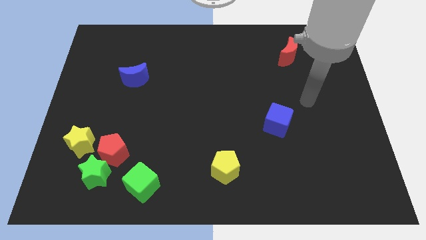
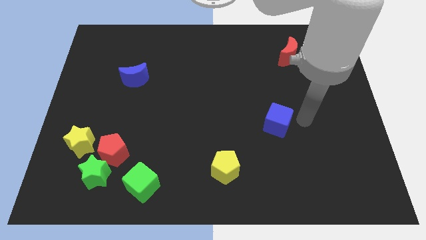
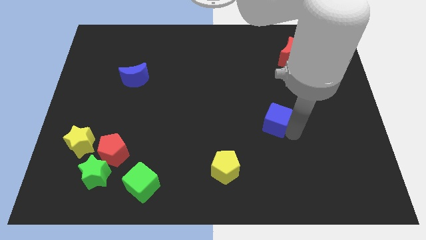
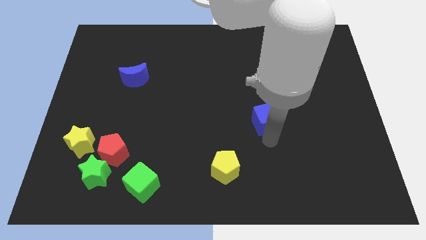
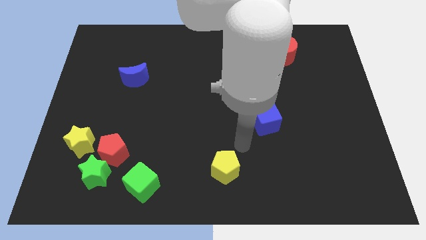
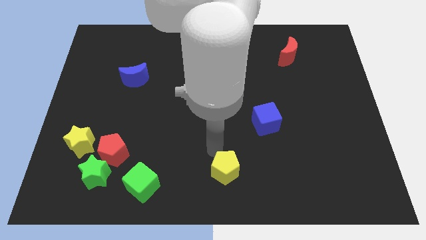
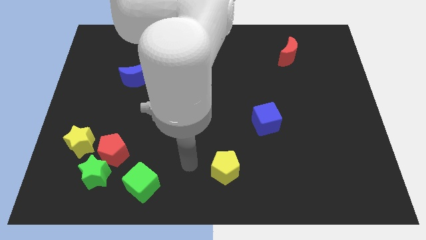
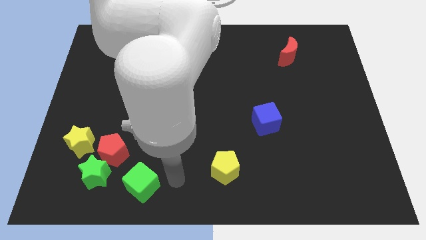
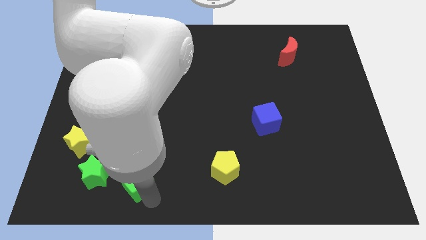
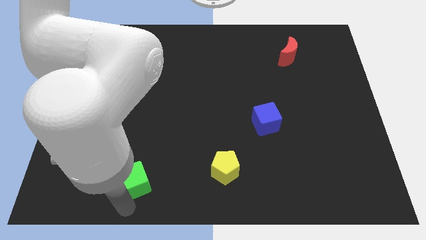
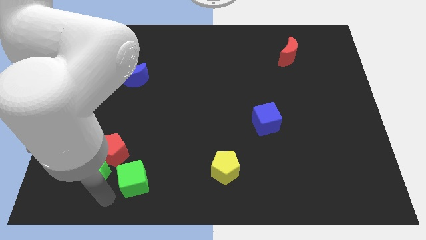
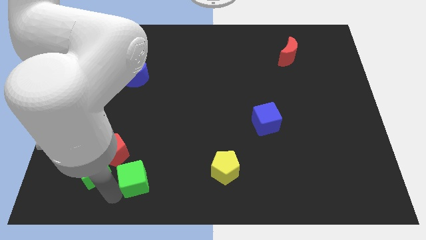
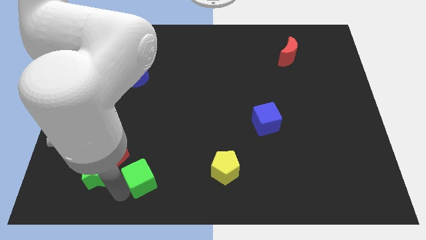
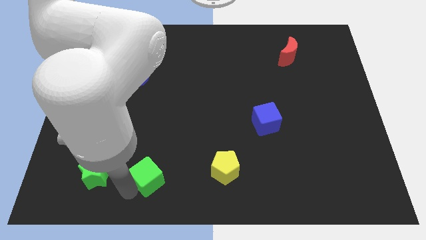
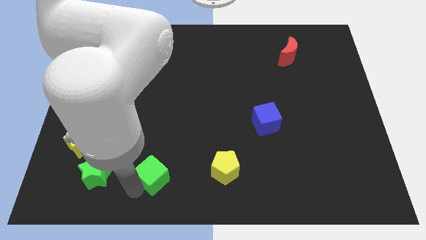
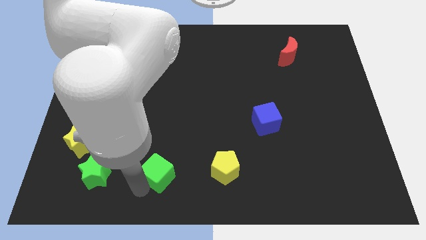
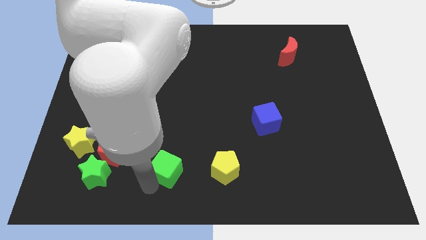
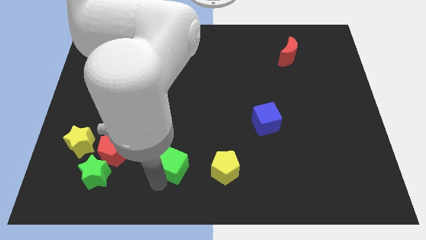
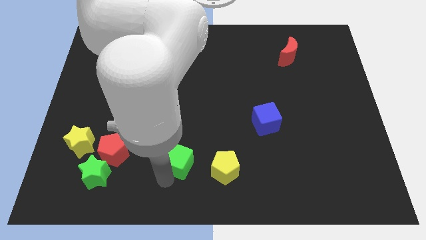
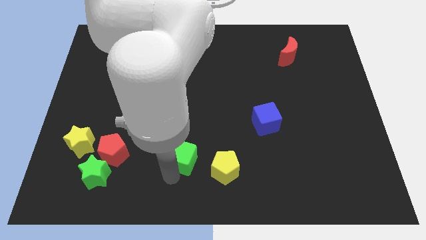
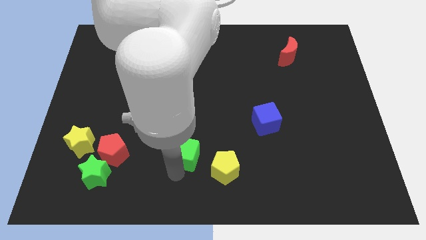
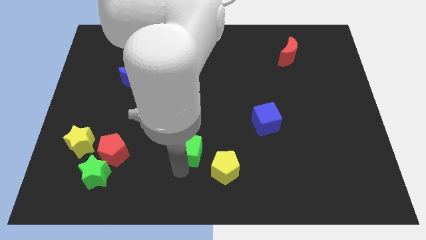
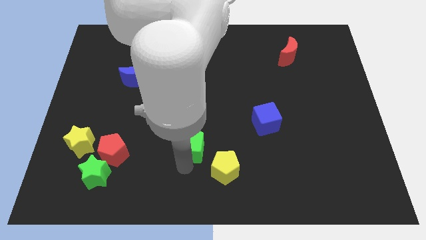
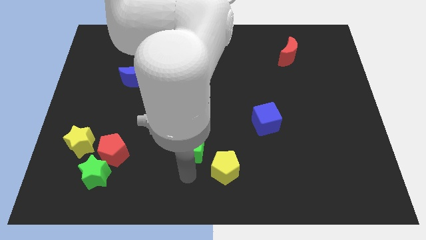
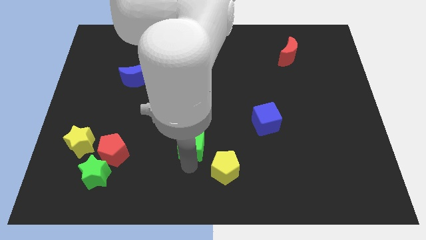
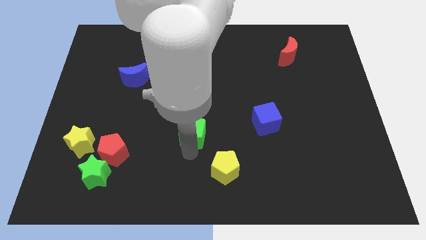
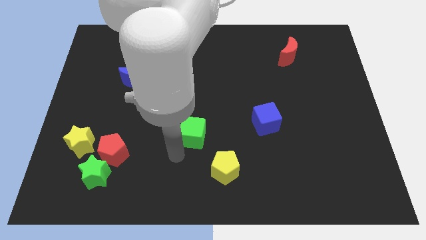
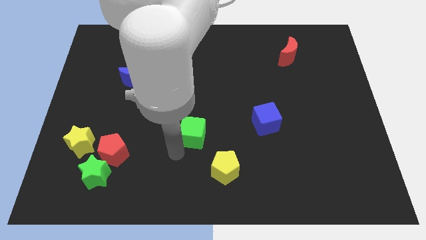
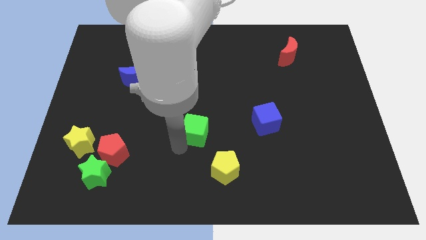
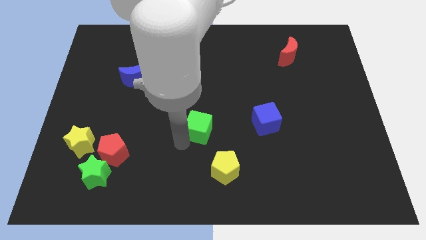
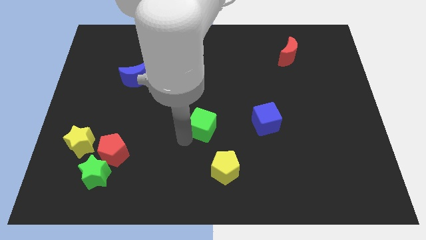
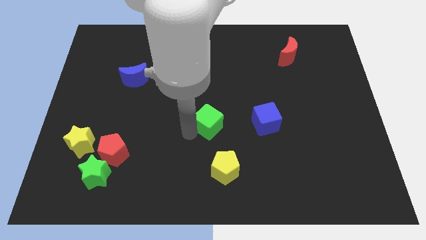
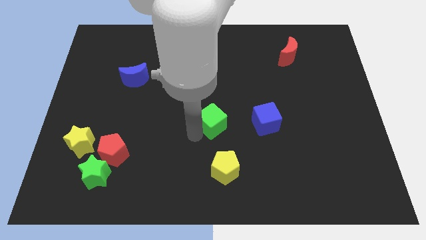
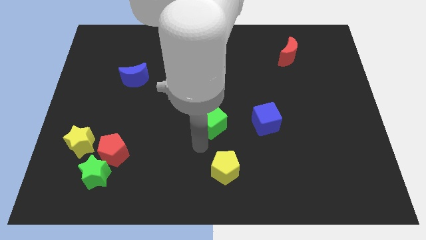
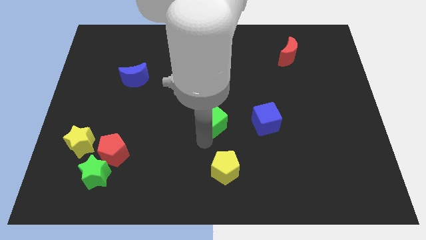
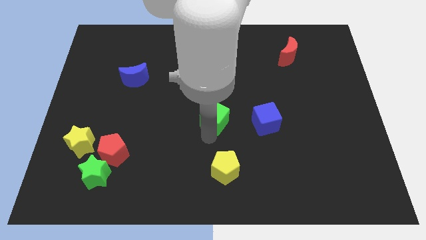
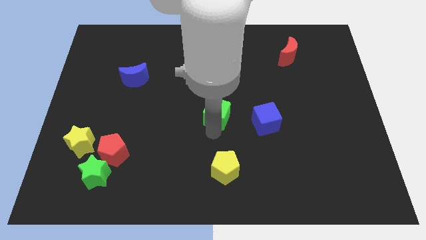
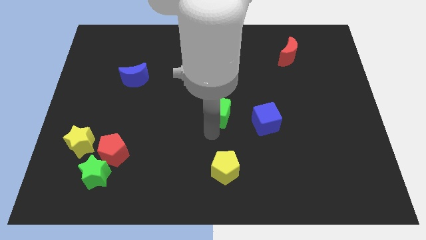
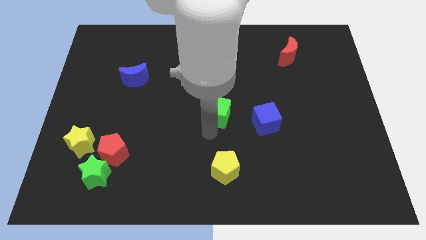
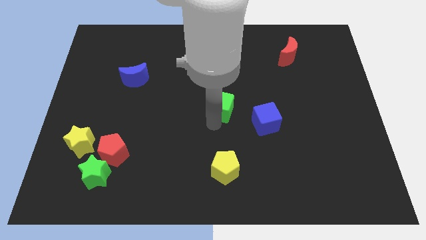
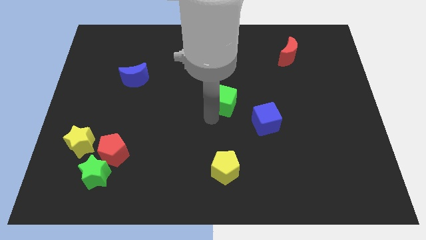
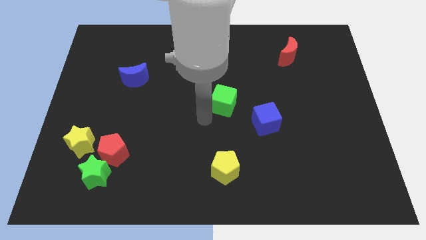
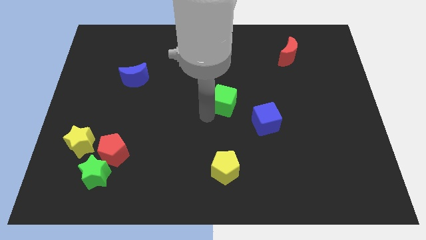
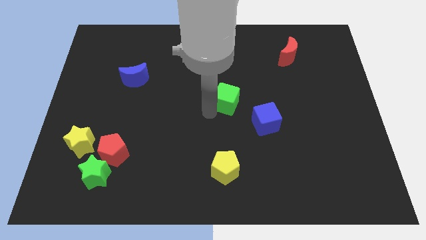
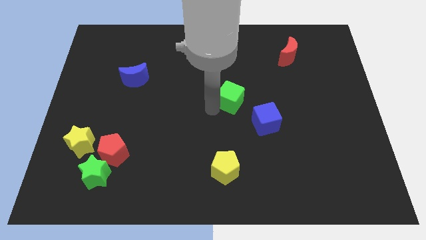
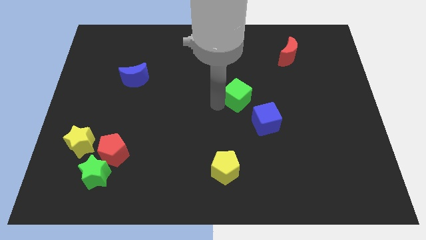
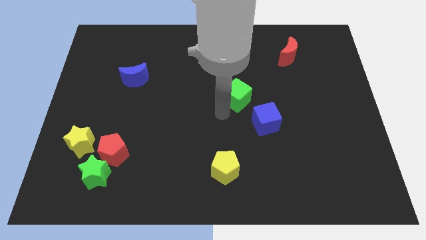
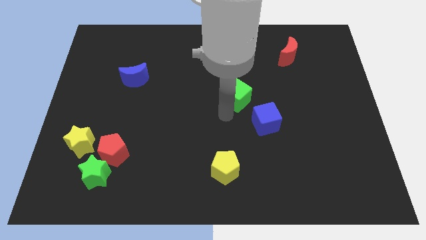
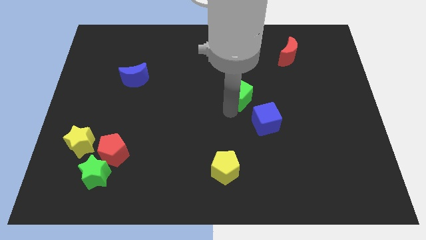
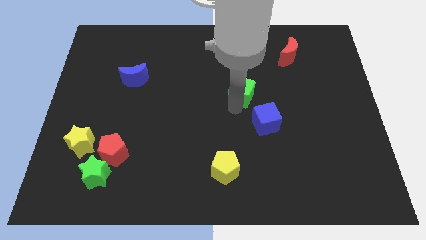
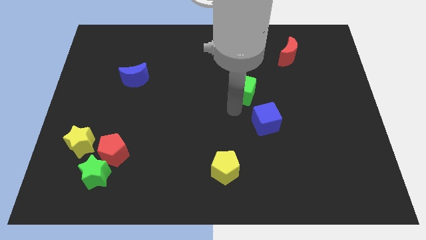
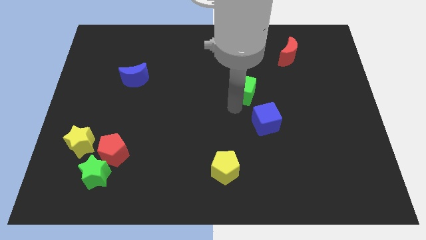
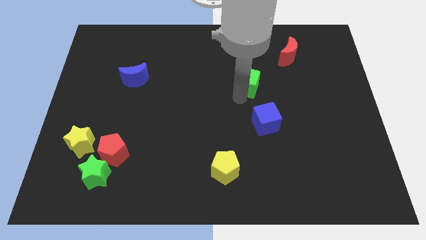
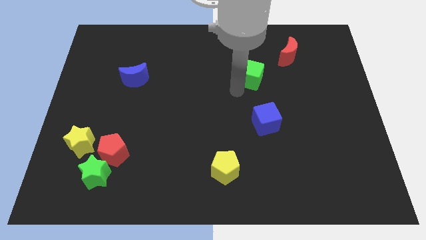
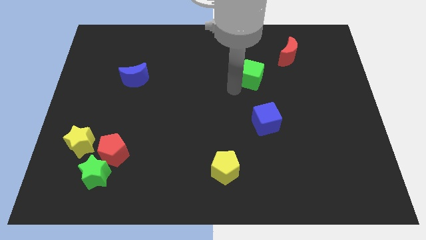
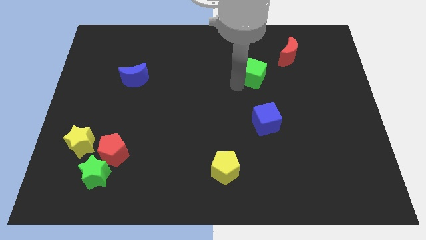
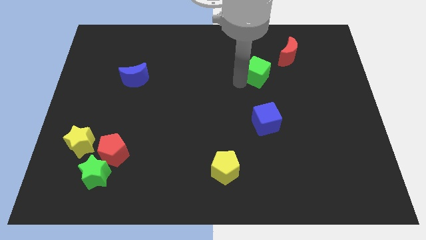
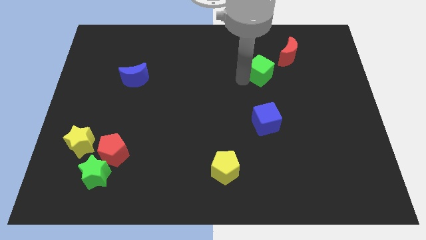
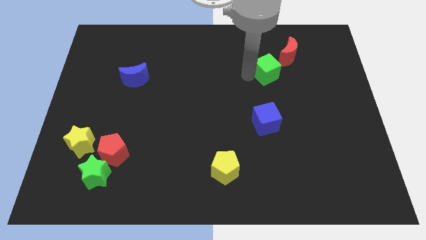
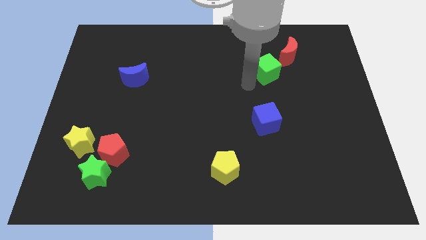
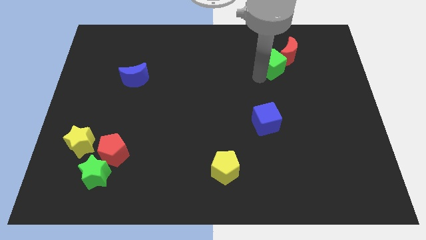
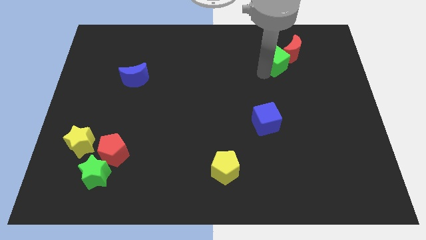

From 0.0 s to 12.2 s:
put the green cube towards the red moon

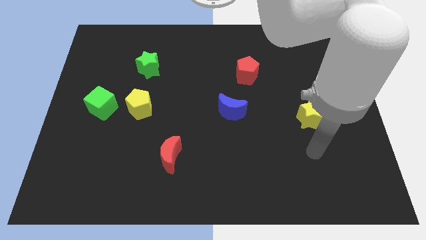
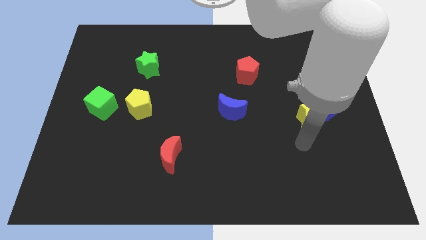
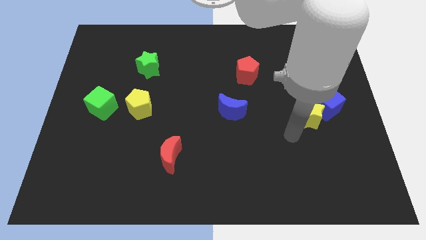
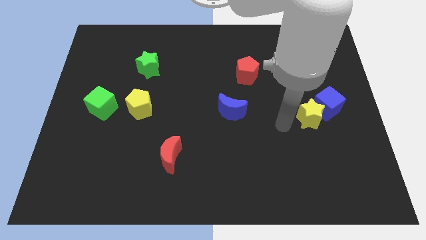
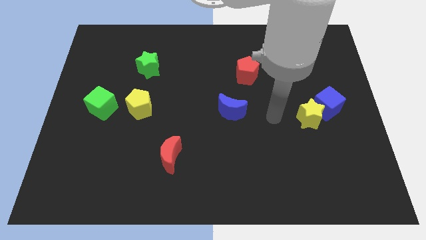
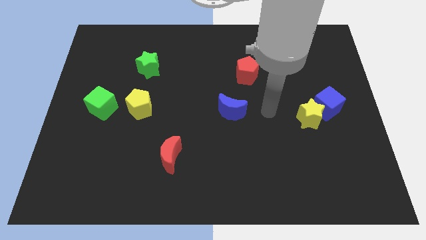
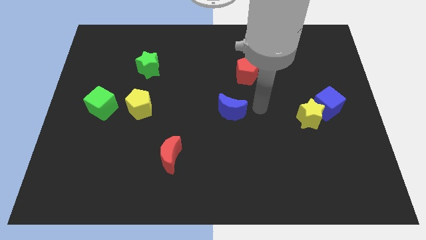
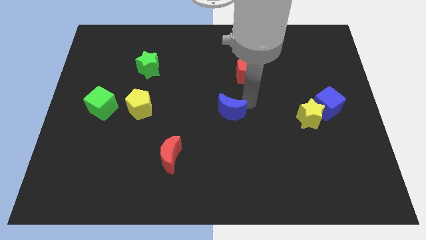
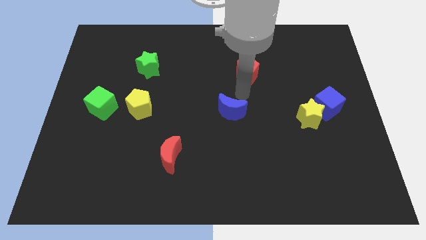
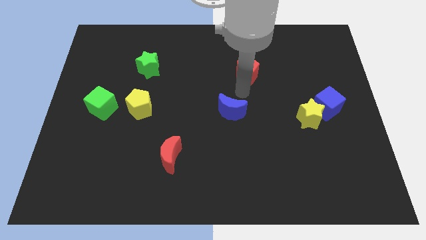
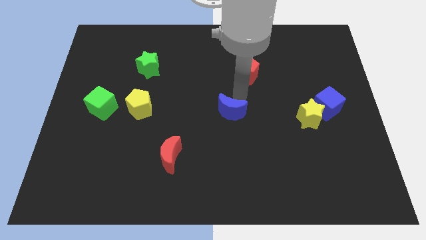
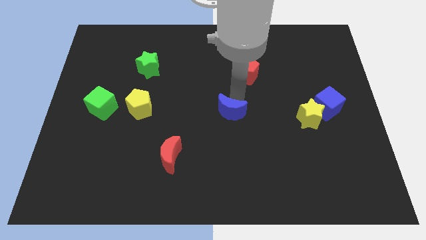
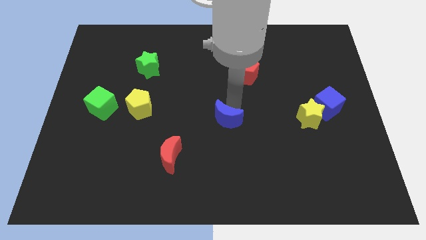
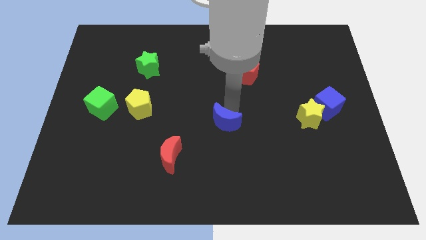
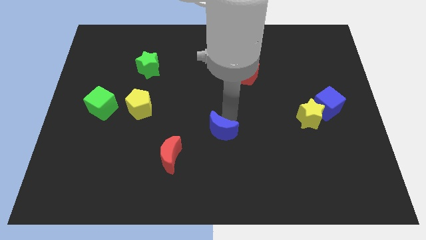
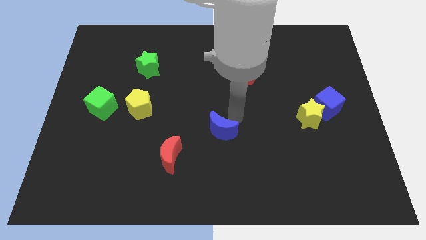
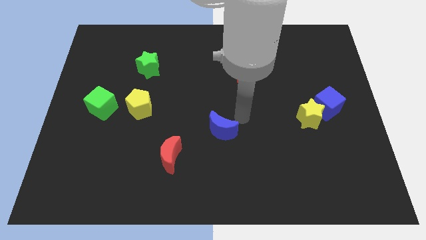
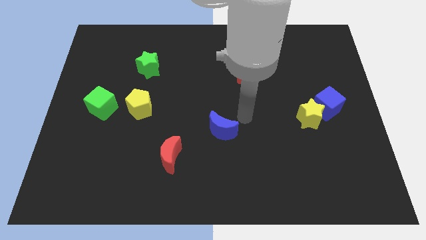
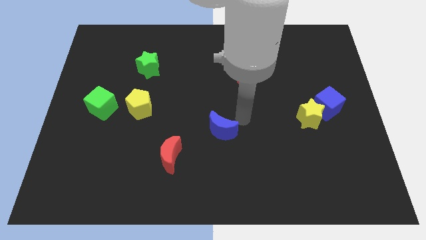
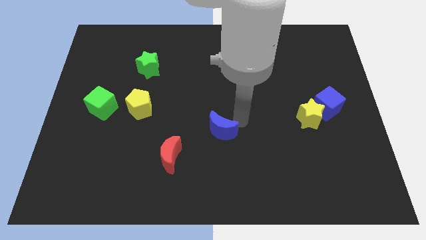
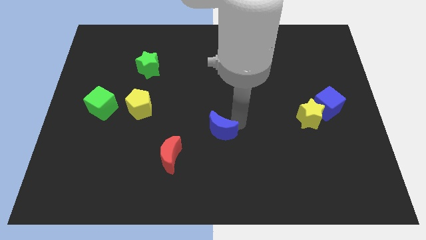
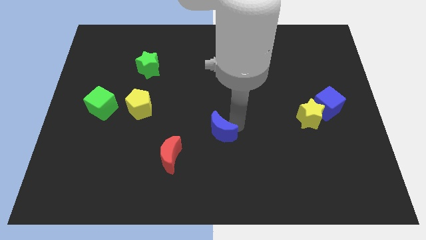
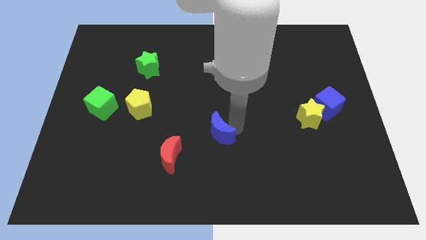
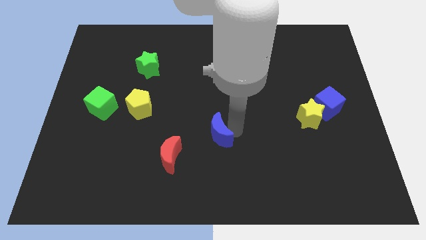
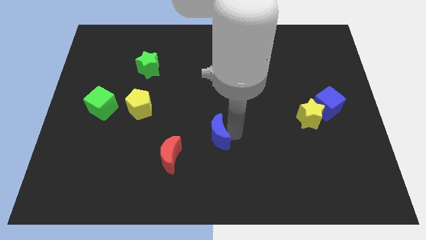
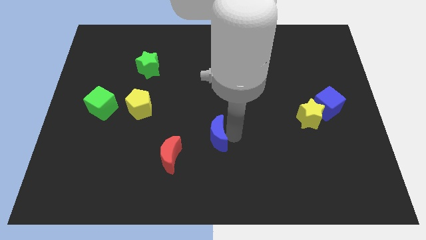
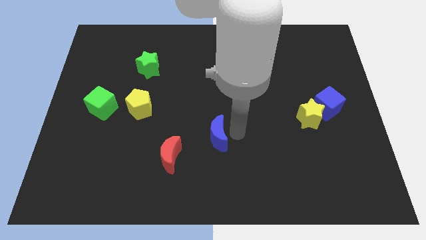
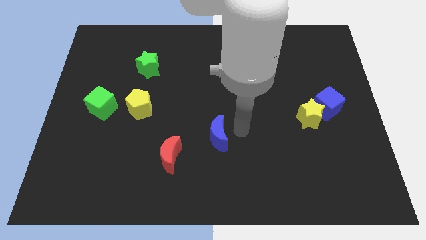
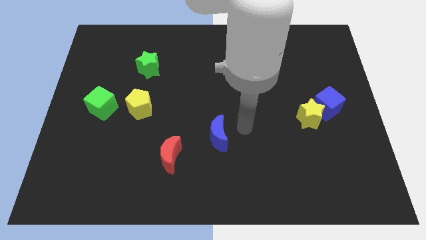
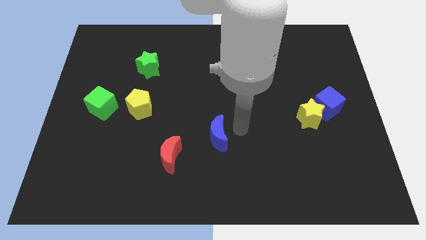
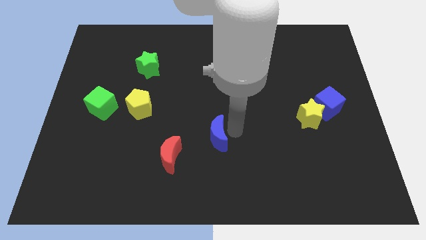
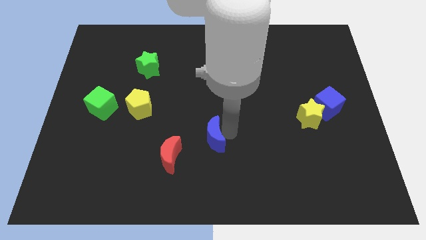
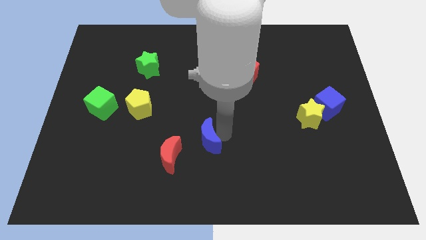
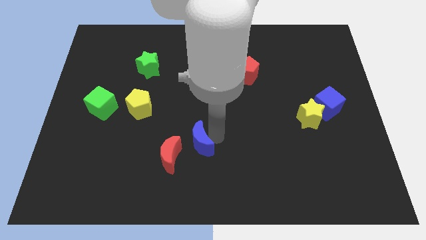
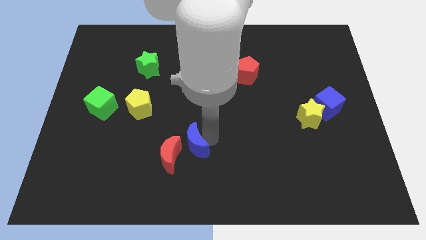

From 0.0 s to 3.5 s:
slide the blue moon close to the red moon
